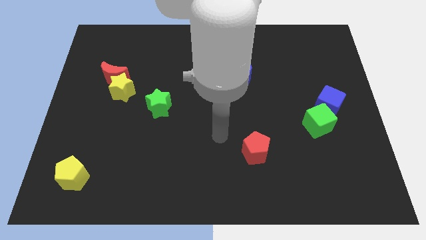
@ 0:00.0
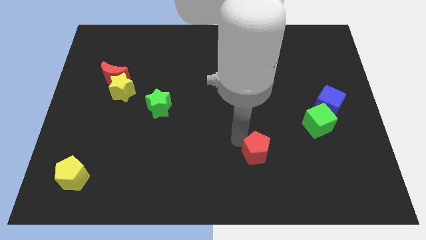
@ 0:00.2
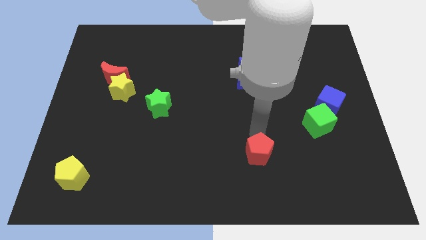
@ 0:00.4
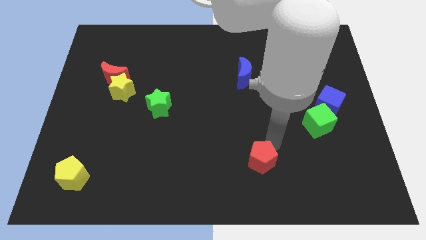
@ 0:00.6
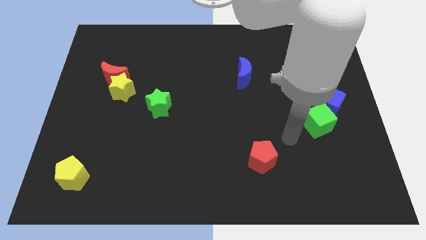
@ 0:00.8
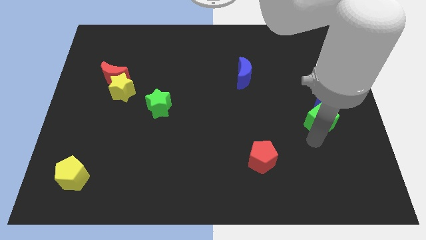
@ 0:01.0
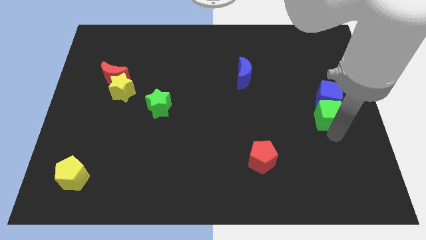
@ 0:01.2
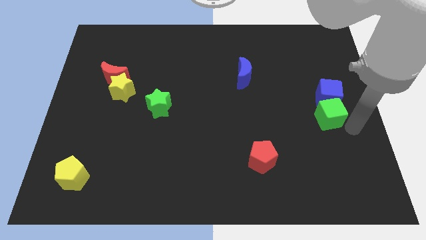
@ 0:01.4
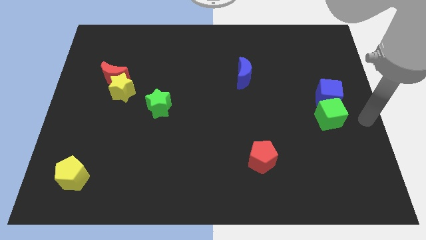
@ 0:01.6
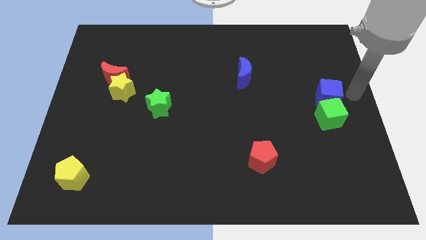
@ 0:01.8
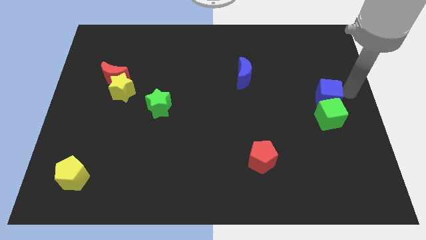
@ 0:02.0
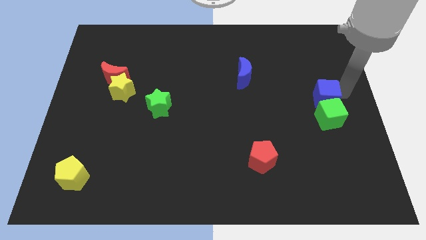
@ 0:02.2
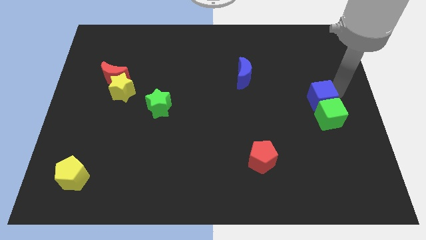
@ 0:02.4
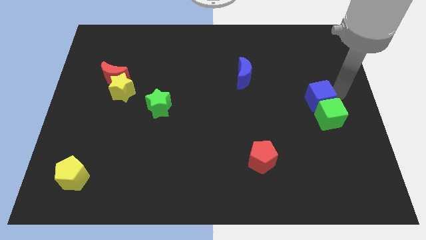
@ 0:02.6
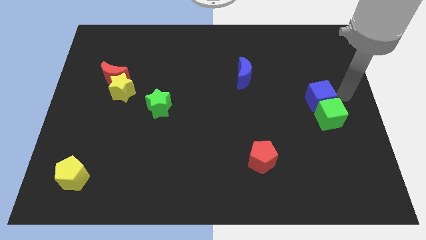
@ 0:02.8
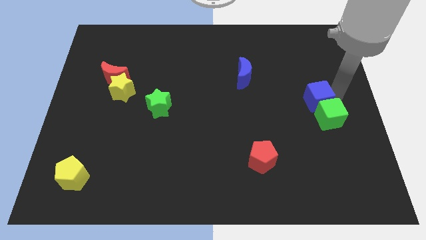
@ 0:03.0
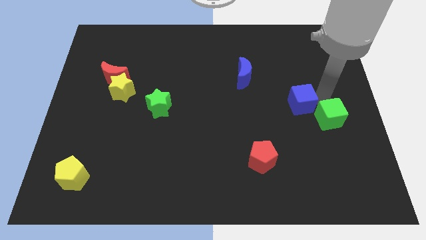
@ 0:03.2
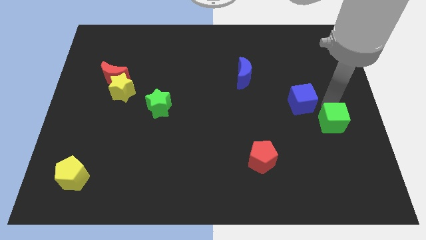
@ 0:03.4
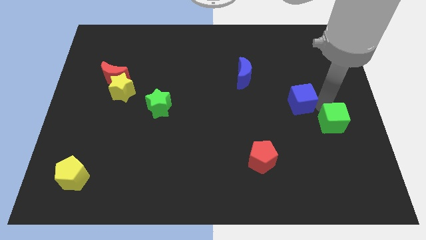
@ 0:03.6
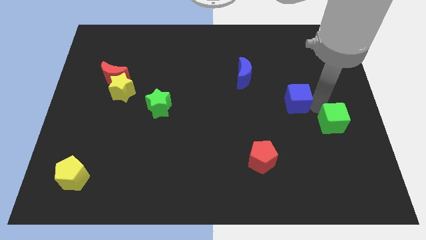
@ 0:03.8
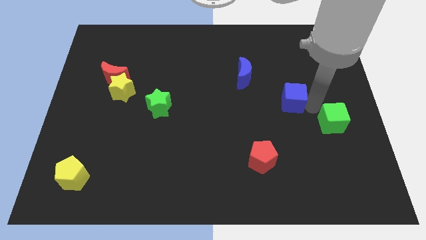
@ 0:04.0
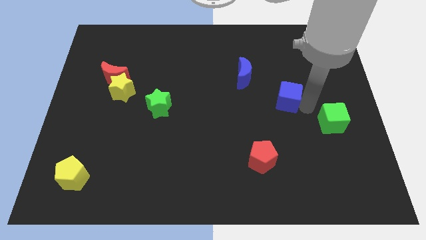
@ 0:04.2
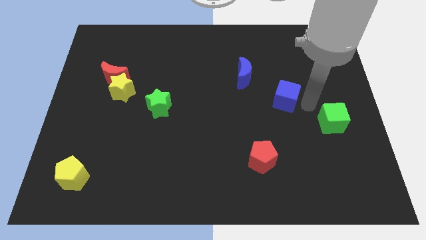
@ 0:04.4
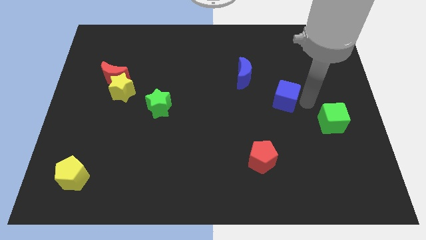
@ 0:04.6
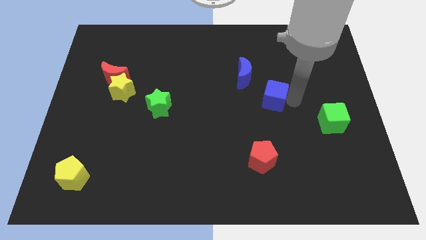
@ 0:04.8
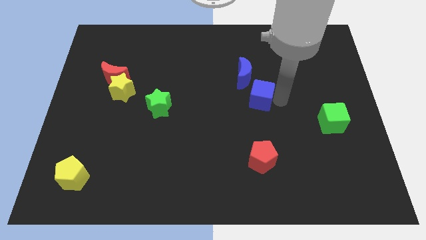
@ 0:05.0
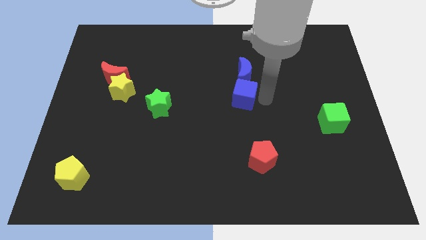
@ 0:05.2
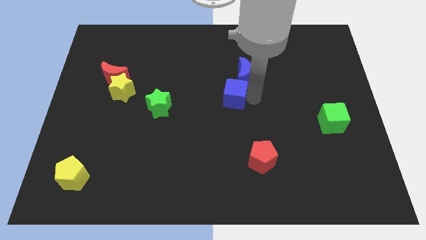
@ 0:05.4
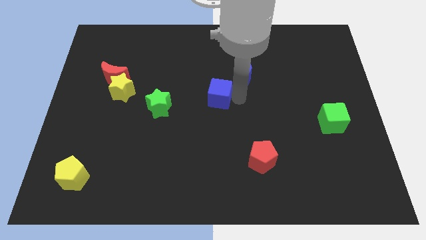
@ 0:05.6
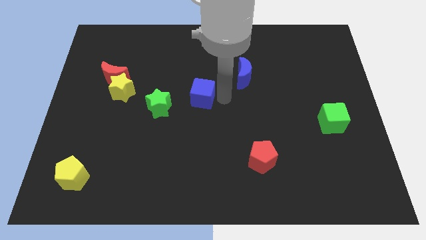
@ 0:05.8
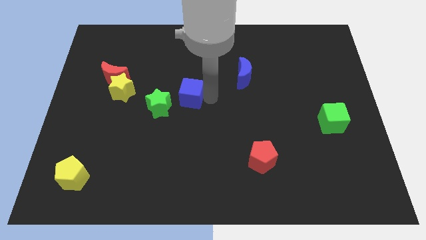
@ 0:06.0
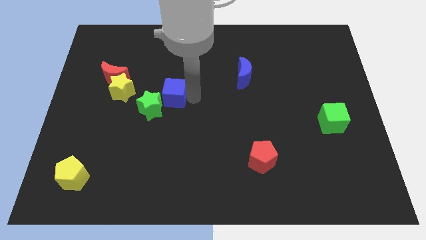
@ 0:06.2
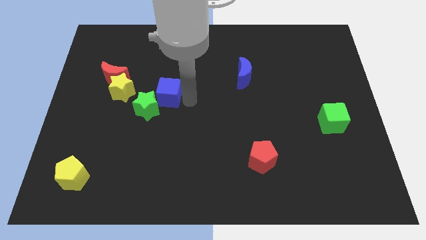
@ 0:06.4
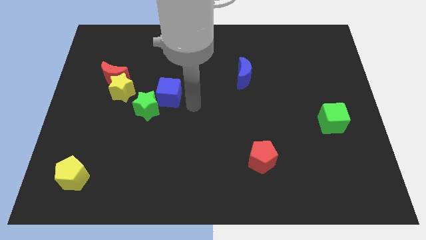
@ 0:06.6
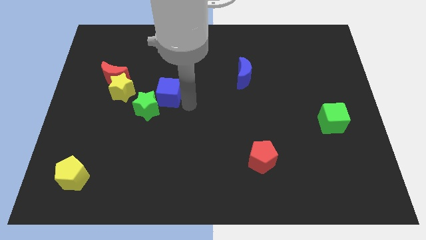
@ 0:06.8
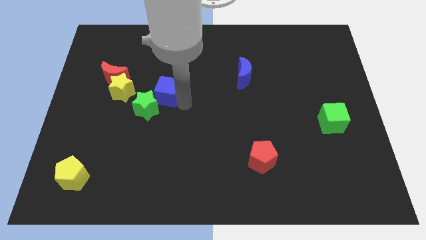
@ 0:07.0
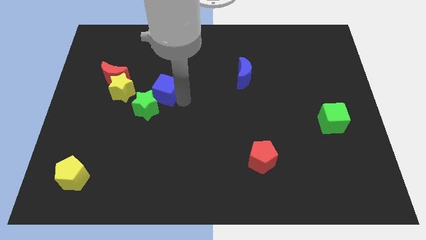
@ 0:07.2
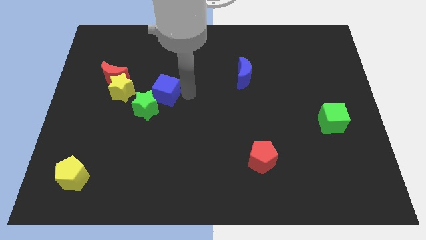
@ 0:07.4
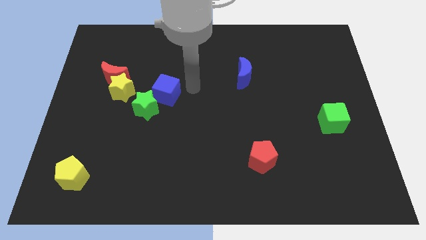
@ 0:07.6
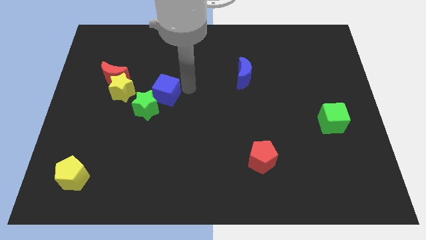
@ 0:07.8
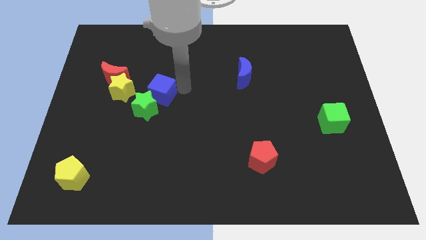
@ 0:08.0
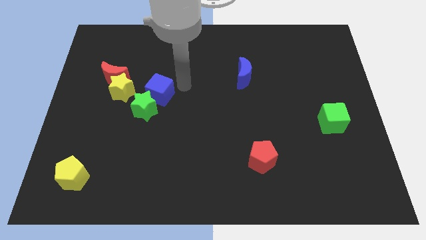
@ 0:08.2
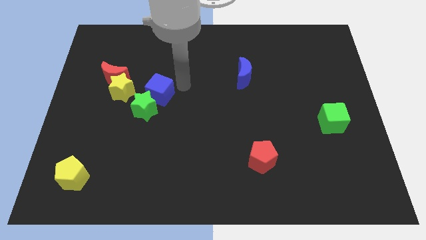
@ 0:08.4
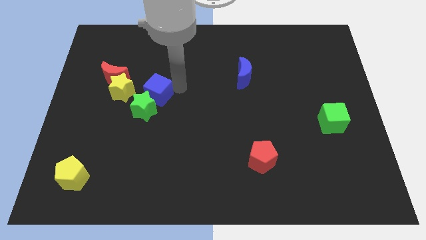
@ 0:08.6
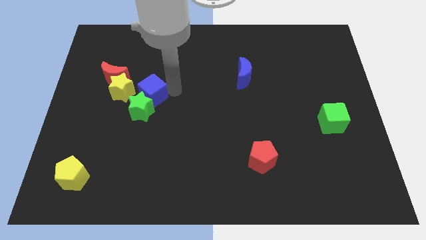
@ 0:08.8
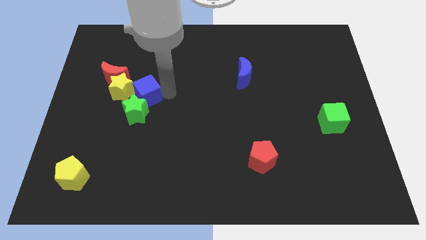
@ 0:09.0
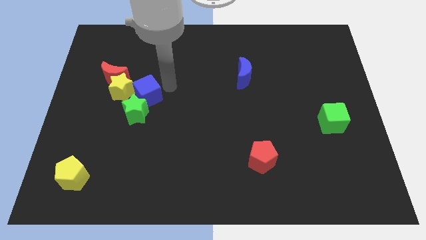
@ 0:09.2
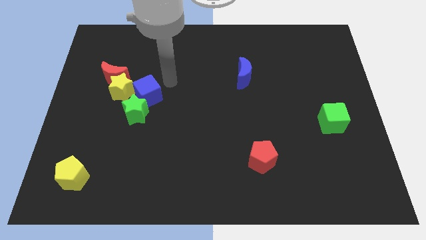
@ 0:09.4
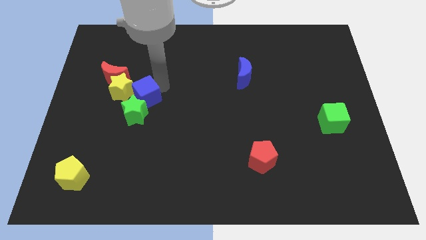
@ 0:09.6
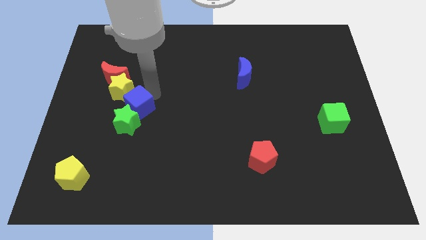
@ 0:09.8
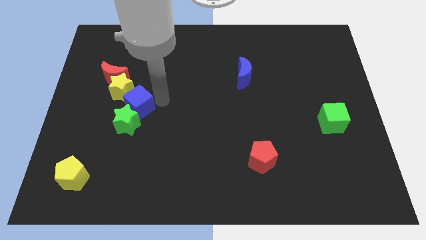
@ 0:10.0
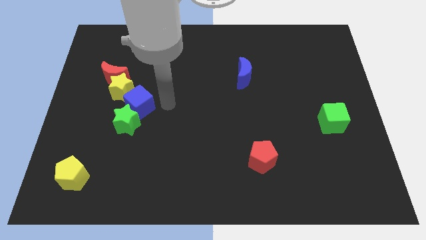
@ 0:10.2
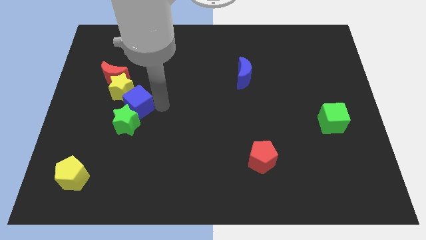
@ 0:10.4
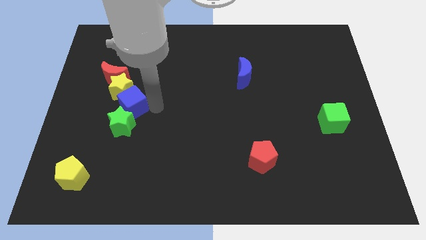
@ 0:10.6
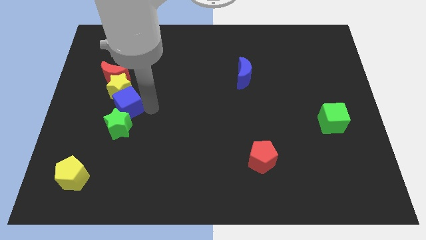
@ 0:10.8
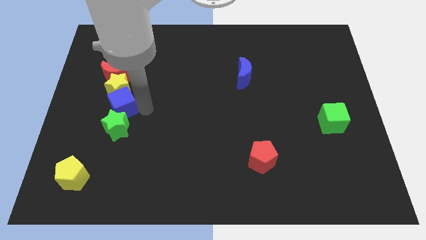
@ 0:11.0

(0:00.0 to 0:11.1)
move the blue cube diagonally down and to the left of the yellow star
